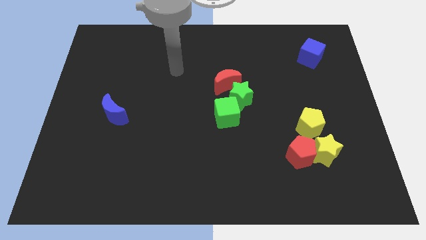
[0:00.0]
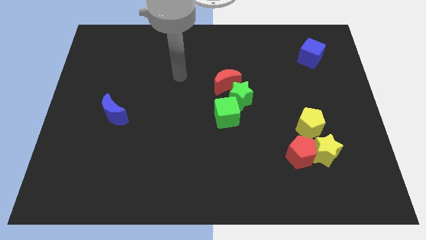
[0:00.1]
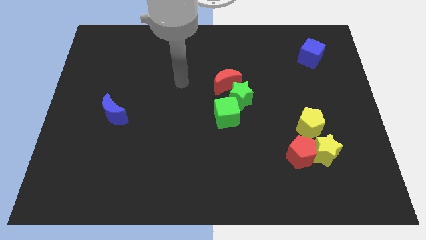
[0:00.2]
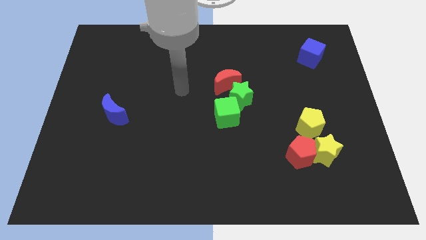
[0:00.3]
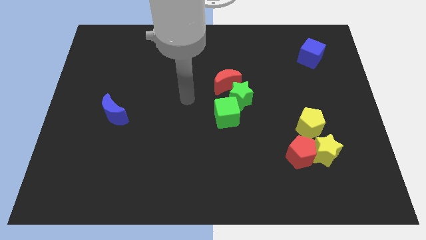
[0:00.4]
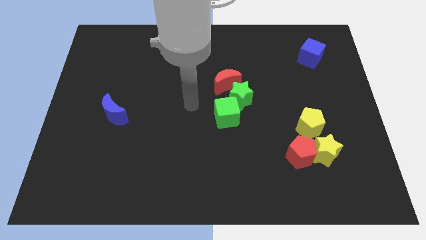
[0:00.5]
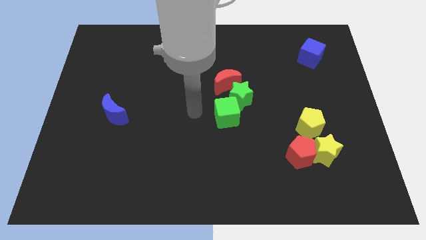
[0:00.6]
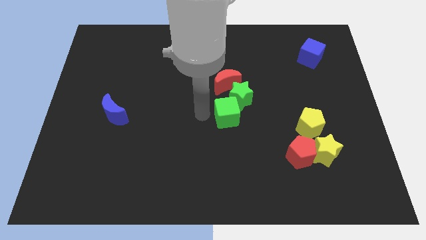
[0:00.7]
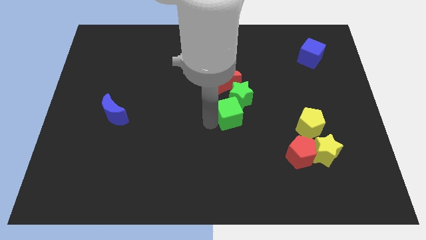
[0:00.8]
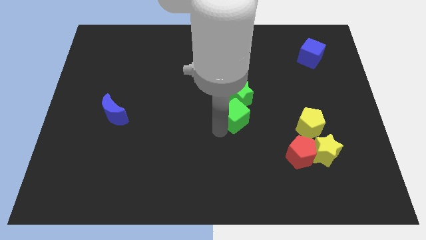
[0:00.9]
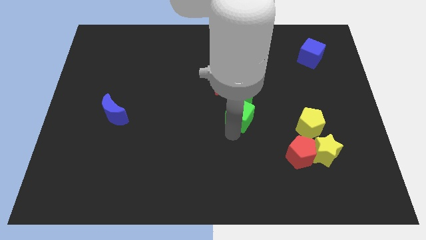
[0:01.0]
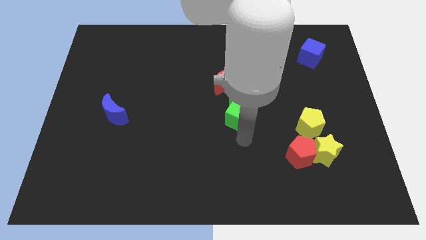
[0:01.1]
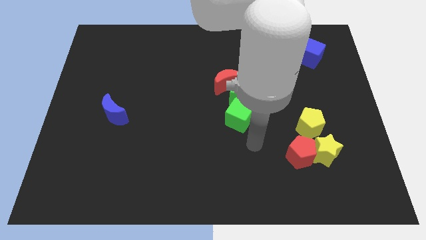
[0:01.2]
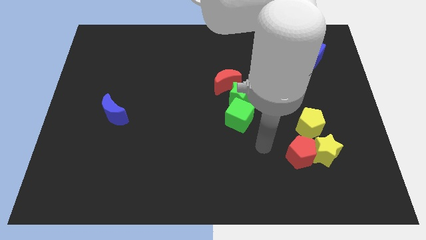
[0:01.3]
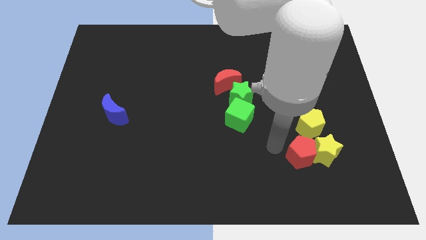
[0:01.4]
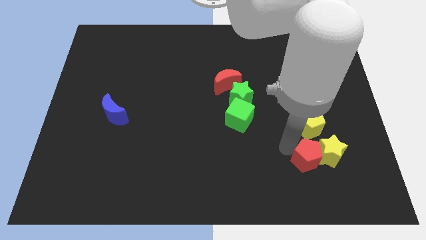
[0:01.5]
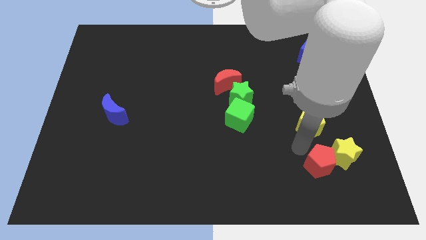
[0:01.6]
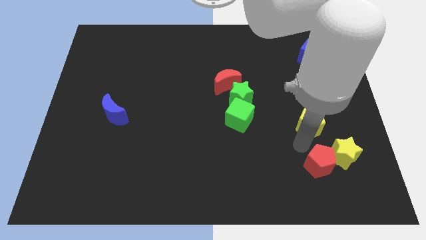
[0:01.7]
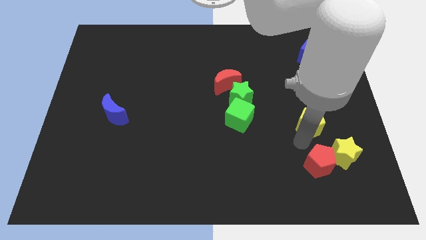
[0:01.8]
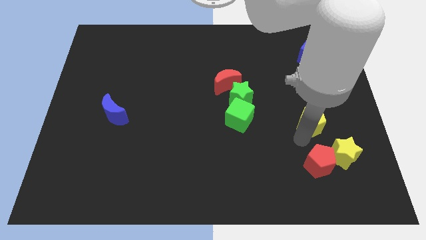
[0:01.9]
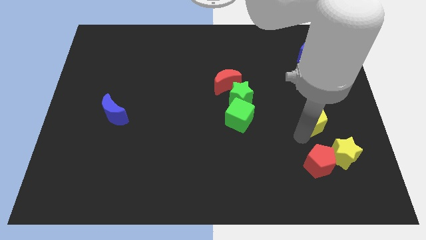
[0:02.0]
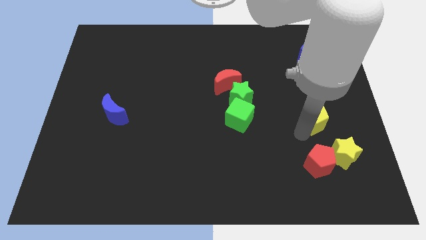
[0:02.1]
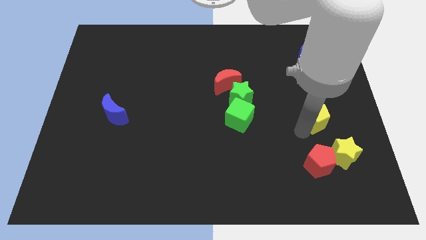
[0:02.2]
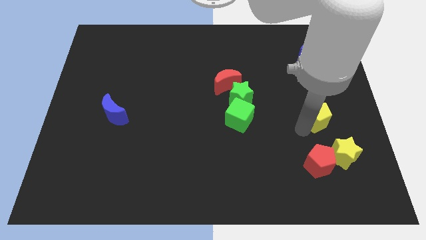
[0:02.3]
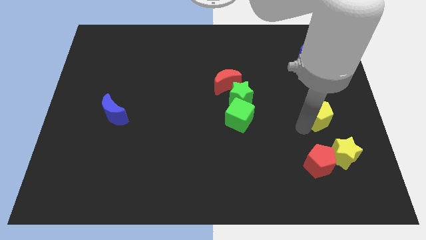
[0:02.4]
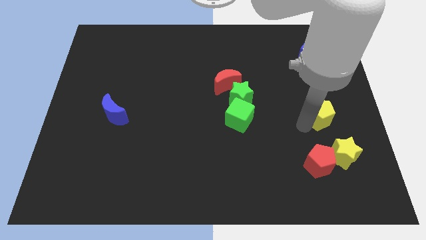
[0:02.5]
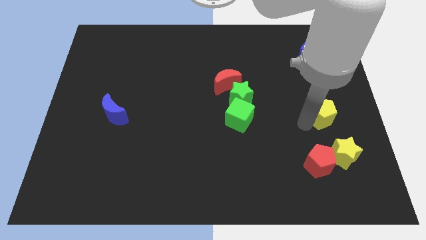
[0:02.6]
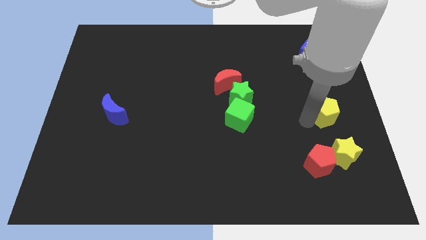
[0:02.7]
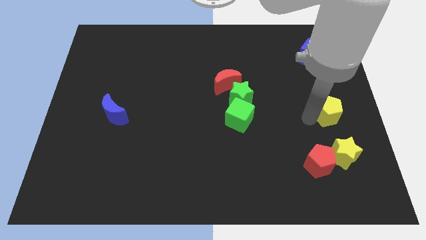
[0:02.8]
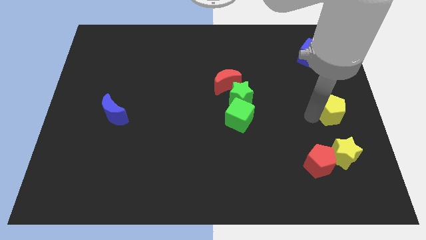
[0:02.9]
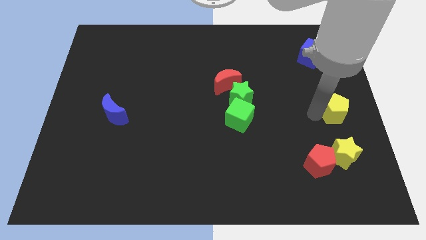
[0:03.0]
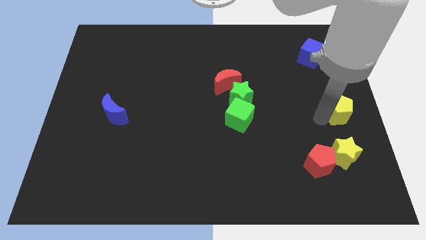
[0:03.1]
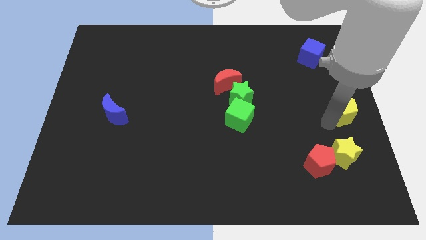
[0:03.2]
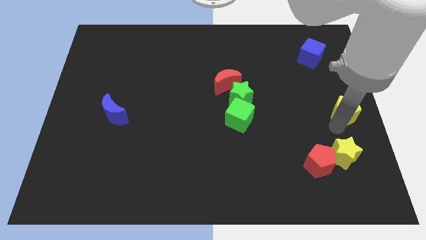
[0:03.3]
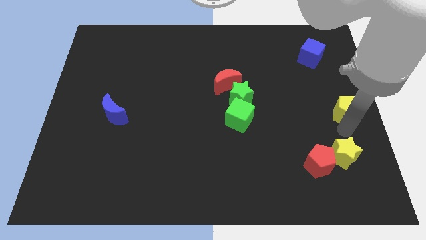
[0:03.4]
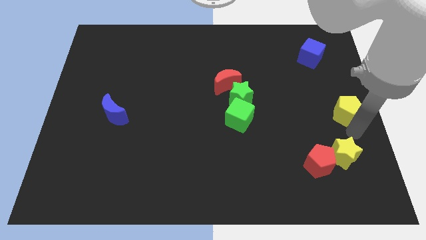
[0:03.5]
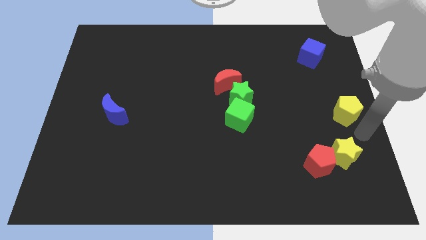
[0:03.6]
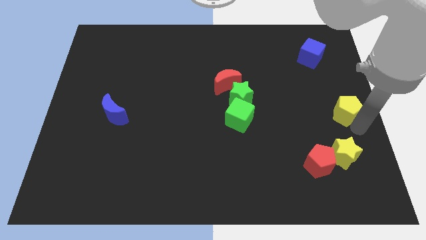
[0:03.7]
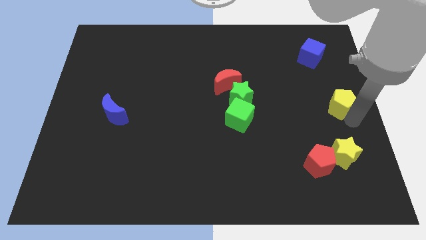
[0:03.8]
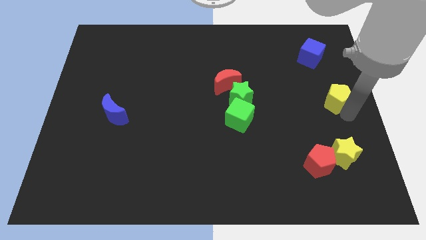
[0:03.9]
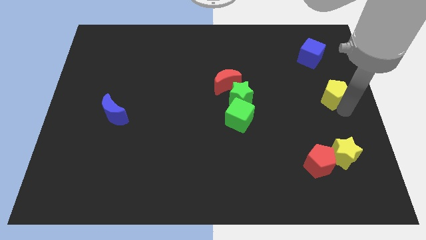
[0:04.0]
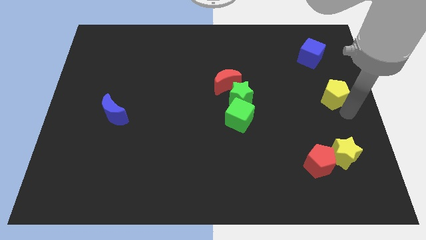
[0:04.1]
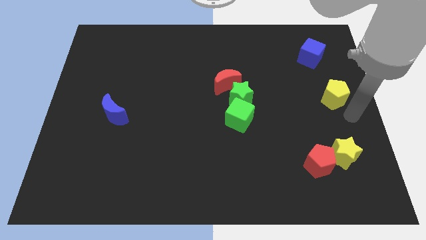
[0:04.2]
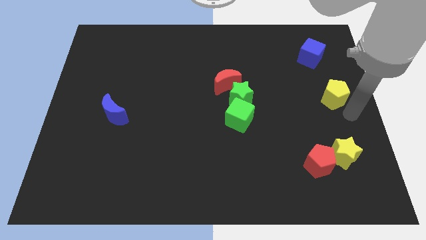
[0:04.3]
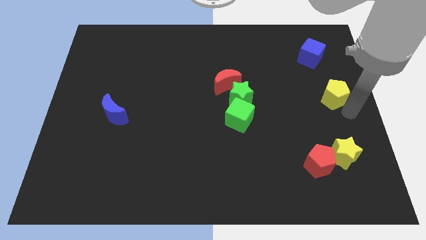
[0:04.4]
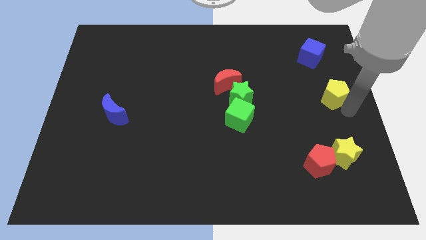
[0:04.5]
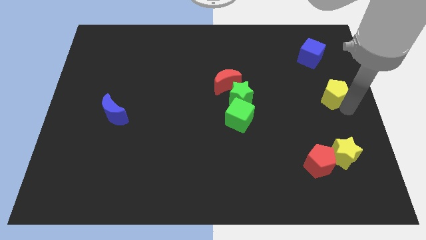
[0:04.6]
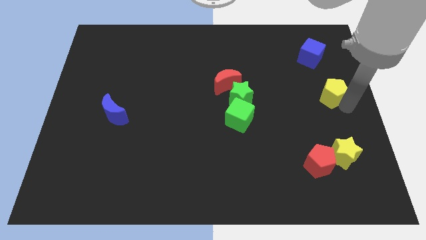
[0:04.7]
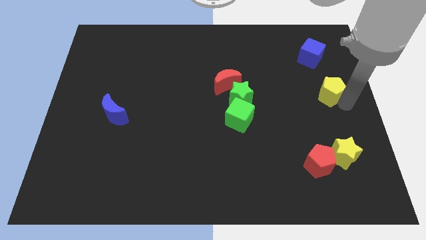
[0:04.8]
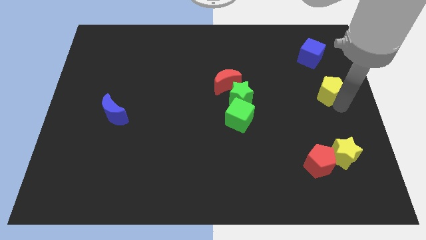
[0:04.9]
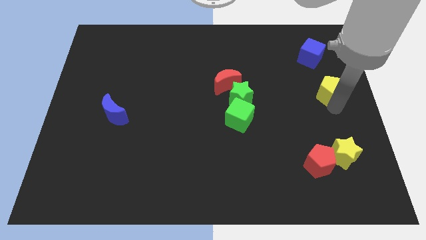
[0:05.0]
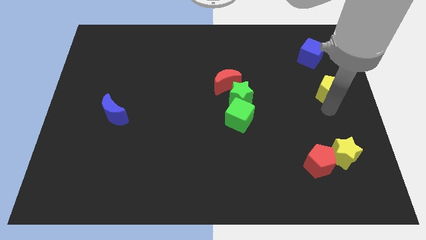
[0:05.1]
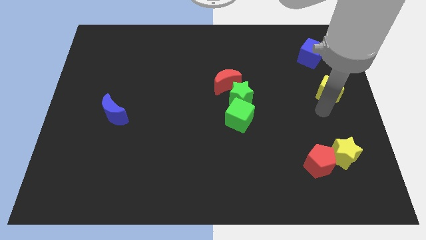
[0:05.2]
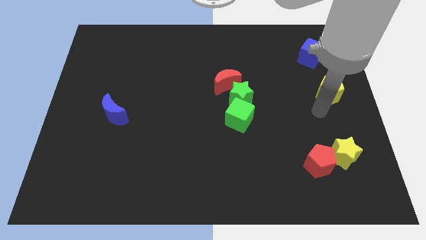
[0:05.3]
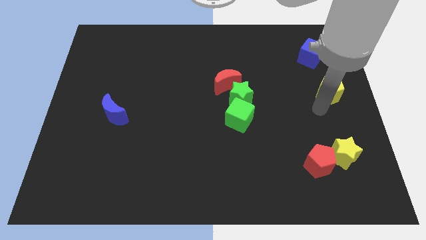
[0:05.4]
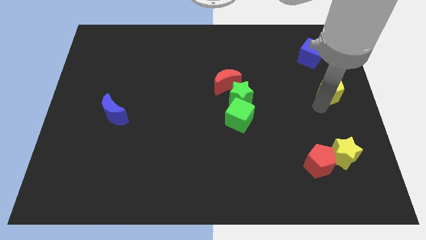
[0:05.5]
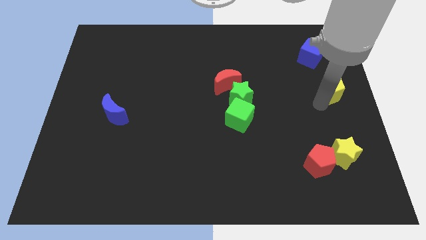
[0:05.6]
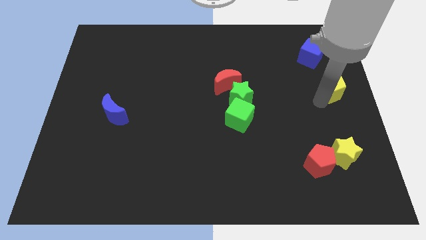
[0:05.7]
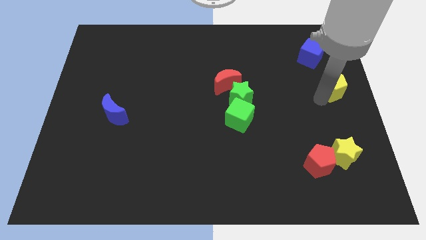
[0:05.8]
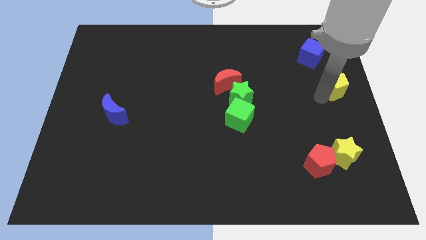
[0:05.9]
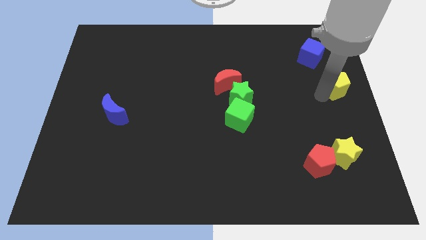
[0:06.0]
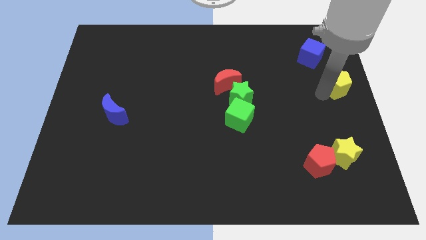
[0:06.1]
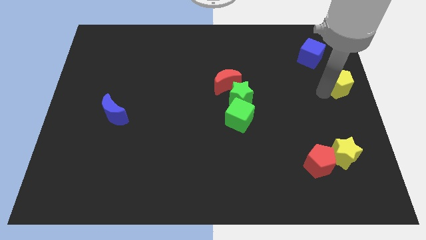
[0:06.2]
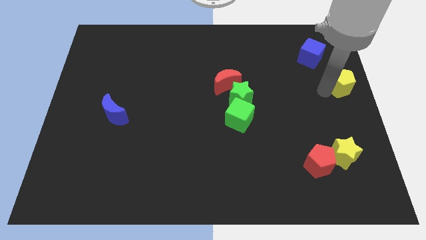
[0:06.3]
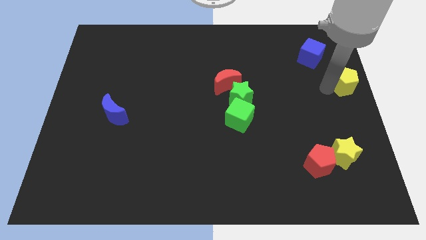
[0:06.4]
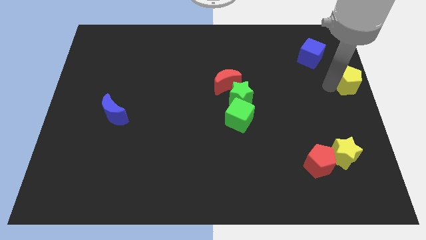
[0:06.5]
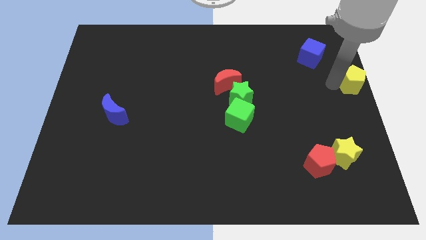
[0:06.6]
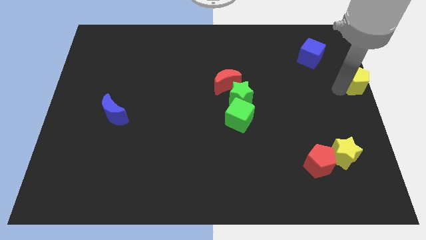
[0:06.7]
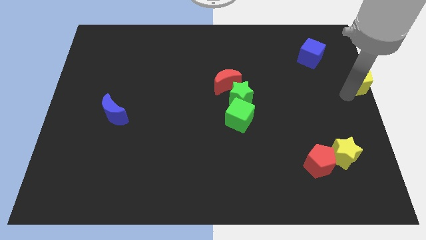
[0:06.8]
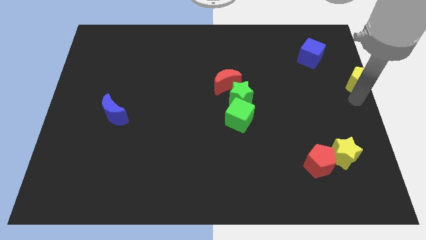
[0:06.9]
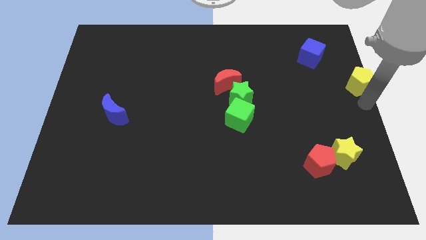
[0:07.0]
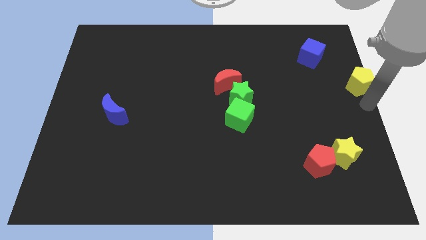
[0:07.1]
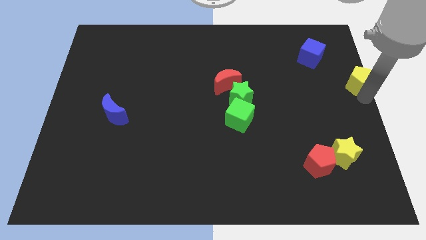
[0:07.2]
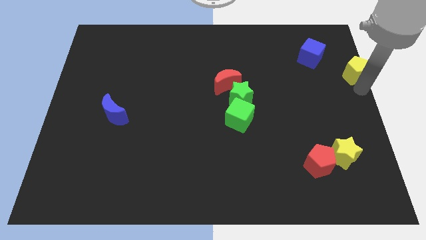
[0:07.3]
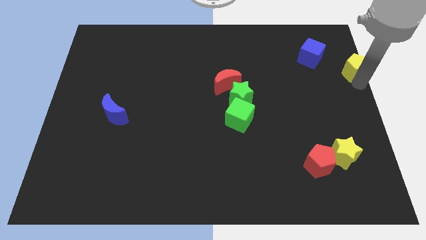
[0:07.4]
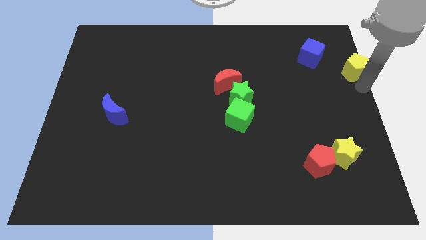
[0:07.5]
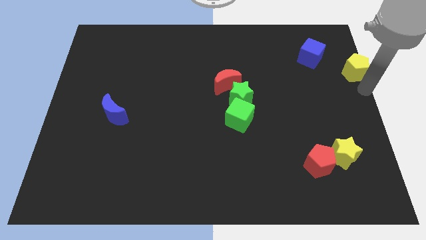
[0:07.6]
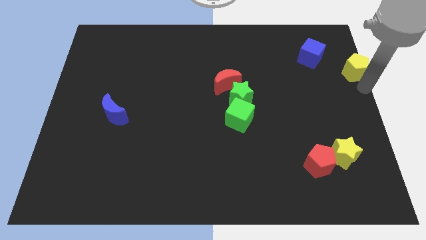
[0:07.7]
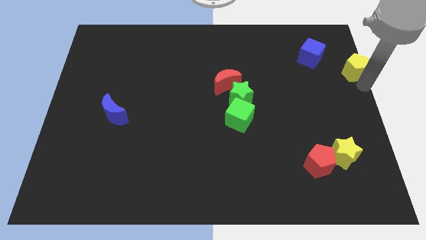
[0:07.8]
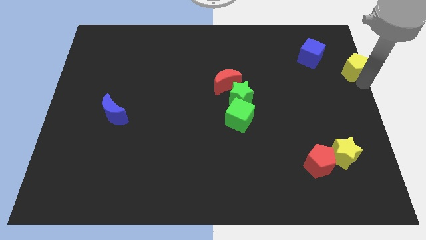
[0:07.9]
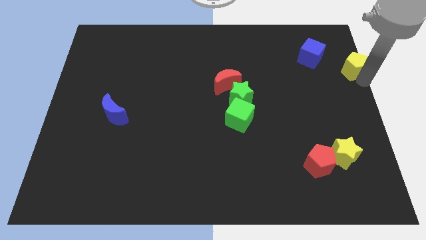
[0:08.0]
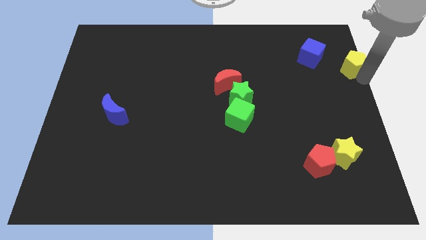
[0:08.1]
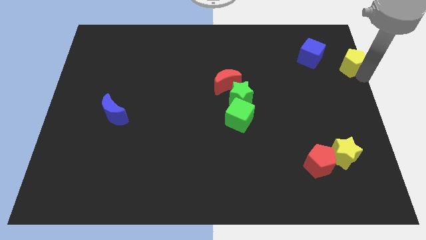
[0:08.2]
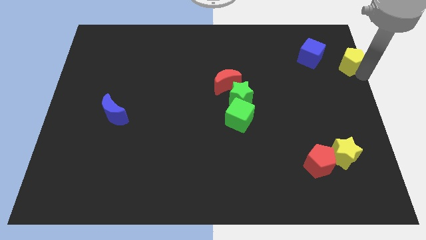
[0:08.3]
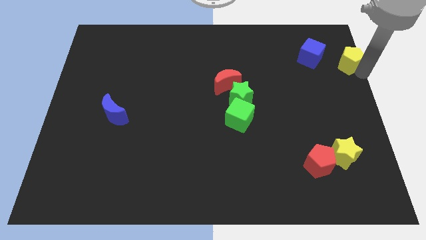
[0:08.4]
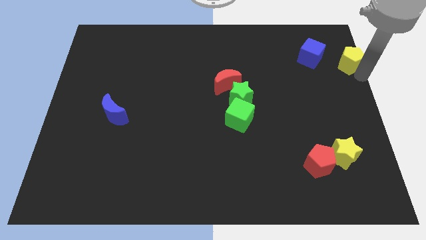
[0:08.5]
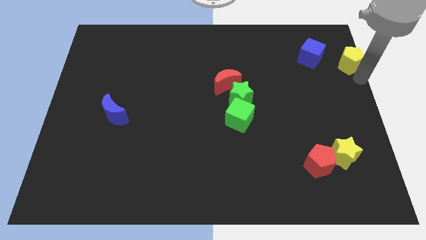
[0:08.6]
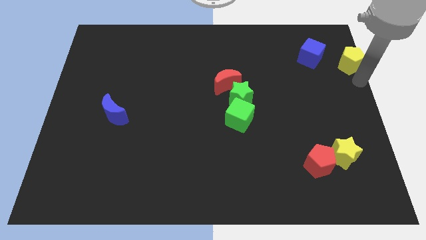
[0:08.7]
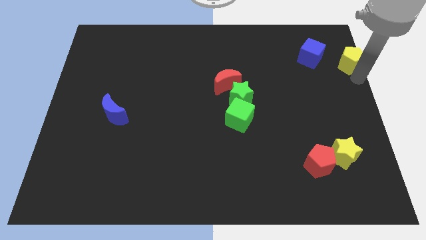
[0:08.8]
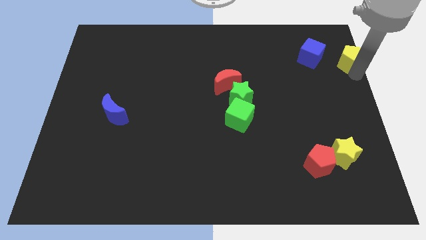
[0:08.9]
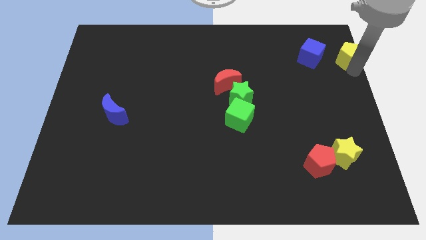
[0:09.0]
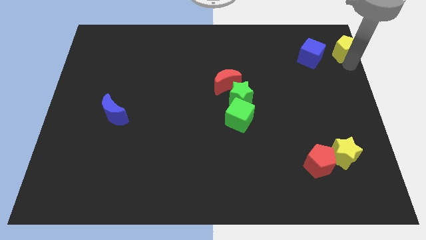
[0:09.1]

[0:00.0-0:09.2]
push the yellow pentagon to the upper right corner
